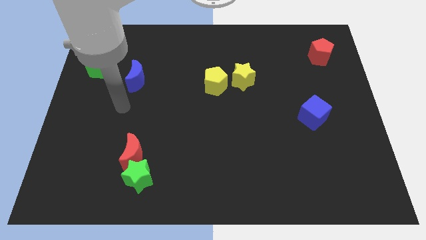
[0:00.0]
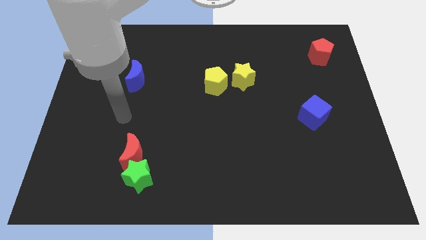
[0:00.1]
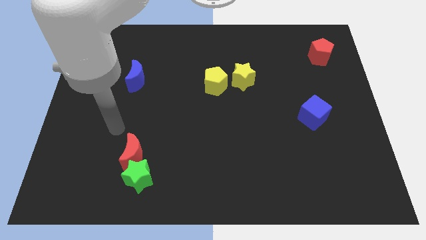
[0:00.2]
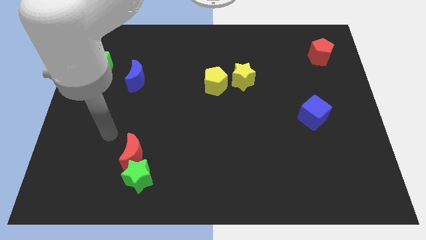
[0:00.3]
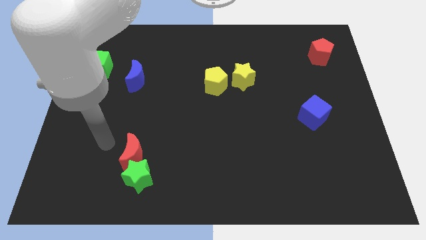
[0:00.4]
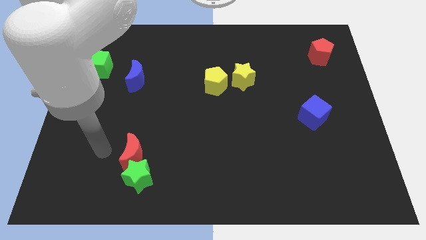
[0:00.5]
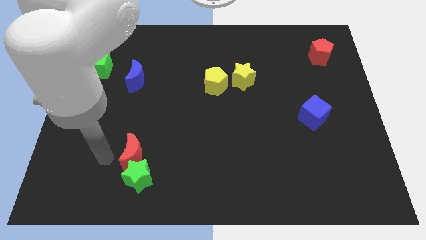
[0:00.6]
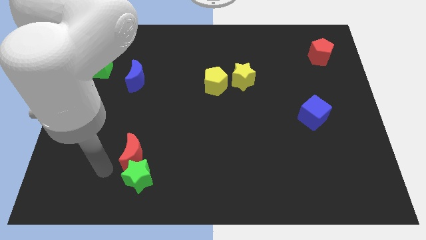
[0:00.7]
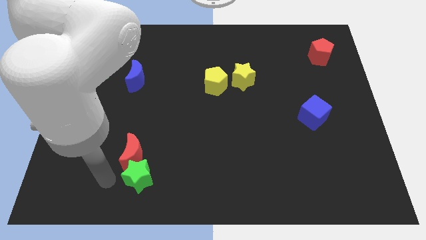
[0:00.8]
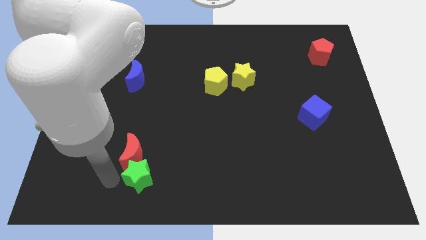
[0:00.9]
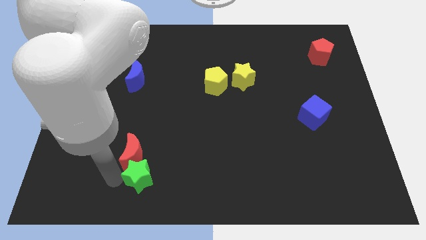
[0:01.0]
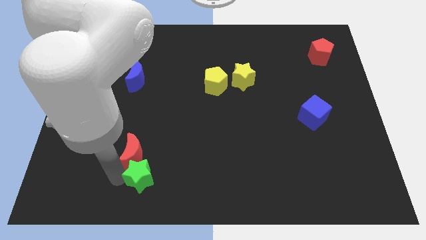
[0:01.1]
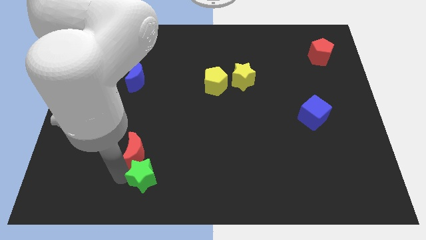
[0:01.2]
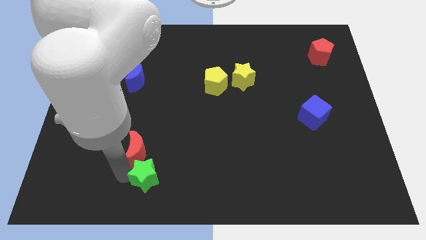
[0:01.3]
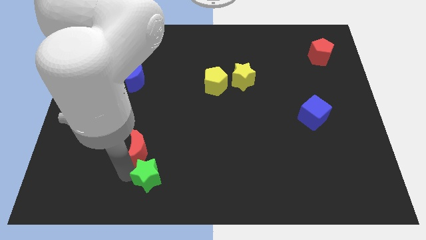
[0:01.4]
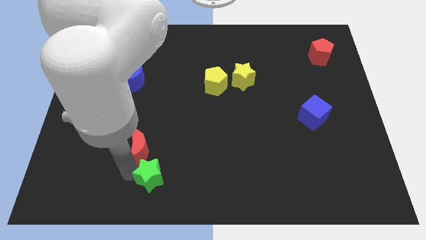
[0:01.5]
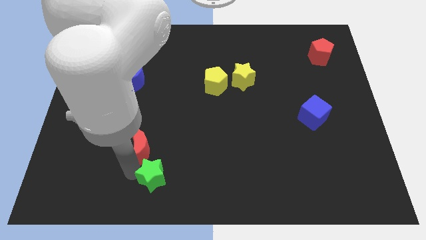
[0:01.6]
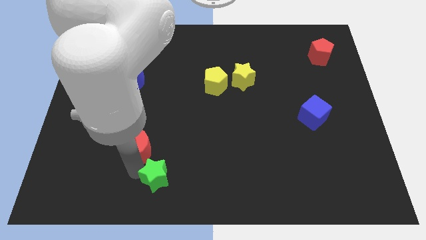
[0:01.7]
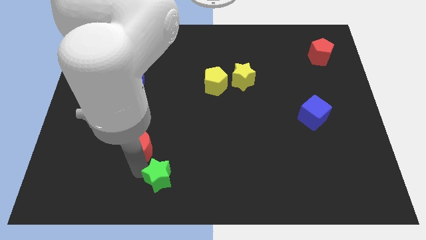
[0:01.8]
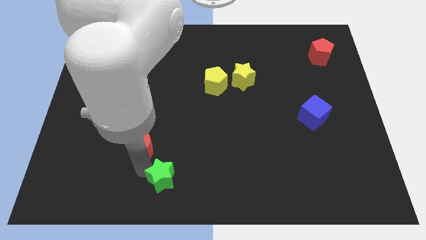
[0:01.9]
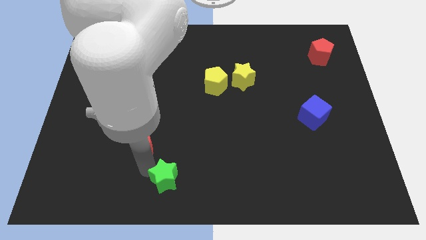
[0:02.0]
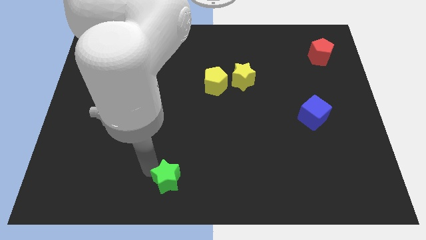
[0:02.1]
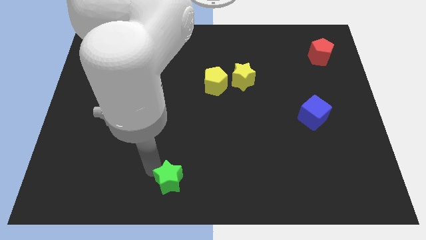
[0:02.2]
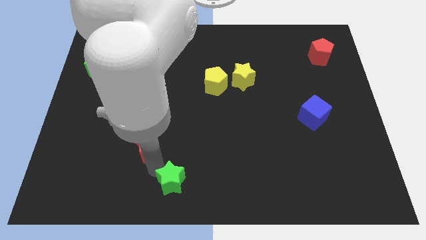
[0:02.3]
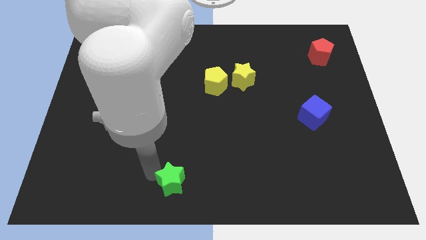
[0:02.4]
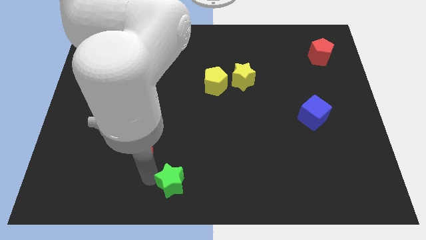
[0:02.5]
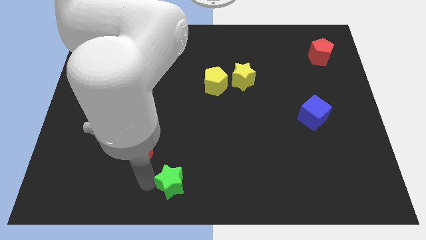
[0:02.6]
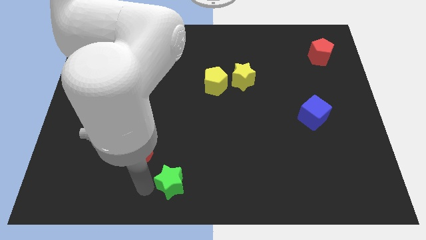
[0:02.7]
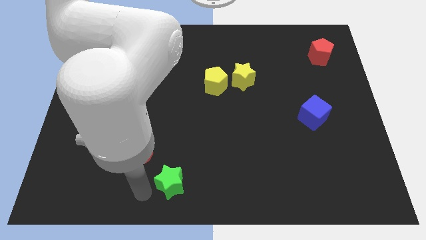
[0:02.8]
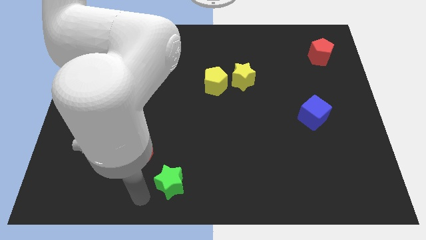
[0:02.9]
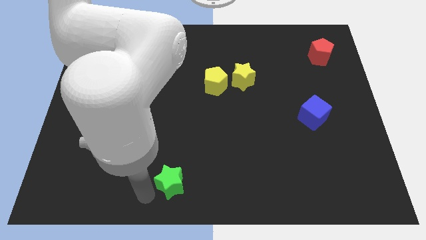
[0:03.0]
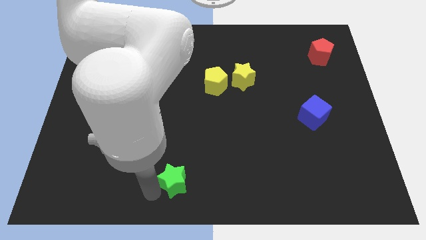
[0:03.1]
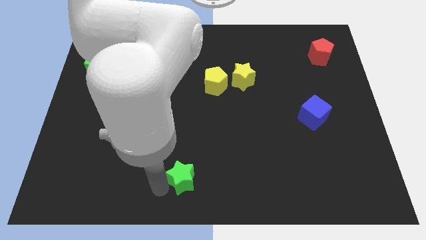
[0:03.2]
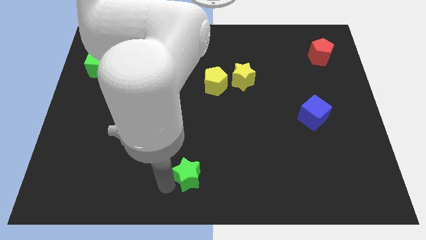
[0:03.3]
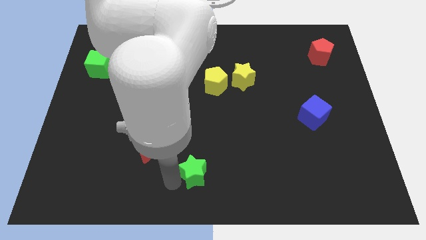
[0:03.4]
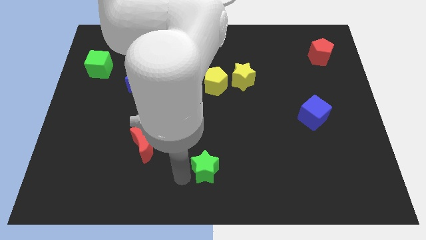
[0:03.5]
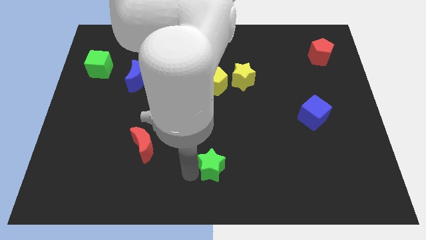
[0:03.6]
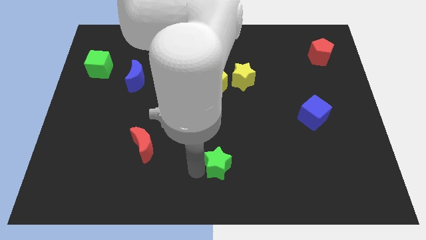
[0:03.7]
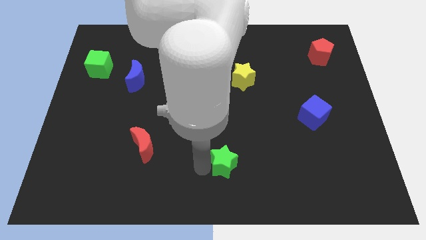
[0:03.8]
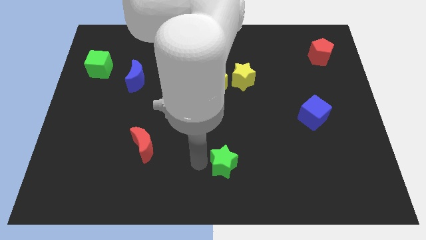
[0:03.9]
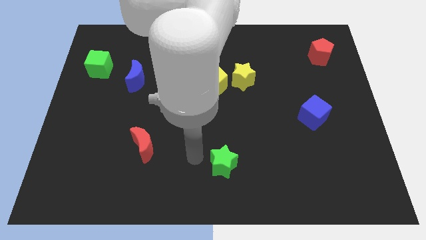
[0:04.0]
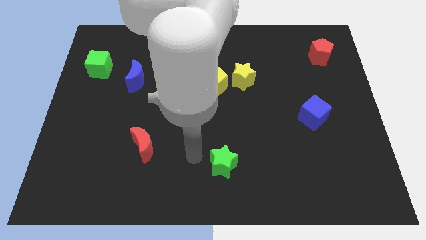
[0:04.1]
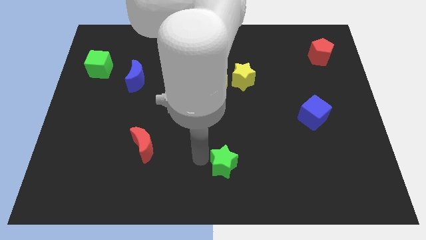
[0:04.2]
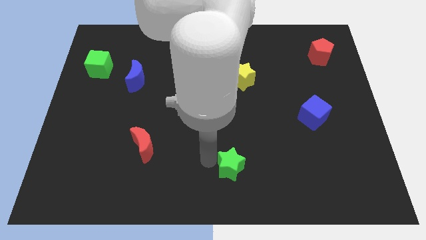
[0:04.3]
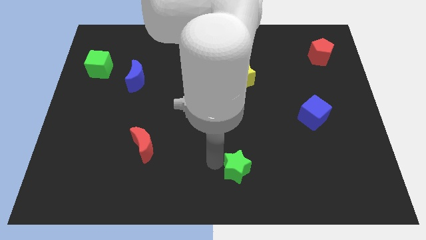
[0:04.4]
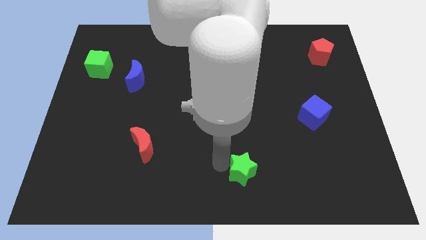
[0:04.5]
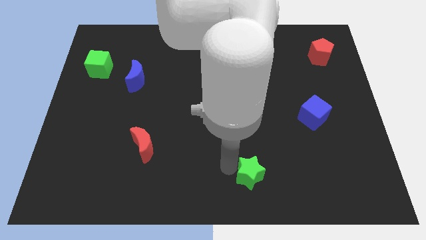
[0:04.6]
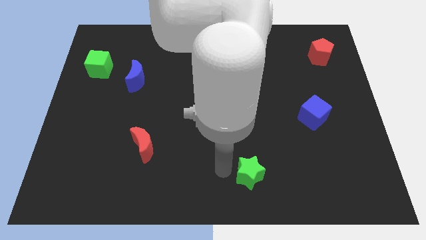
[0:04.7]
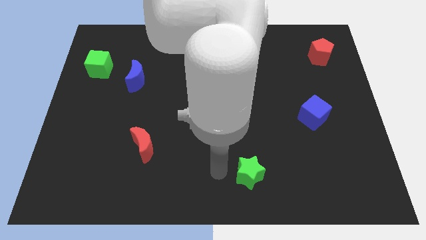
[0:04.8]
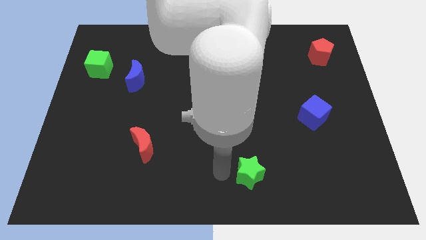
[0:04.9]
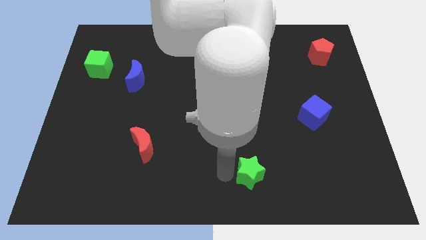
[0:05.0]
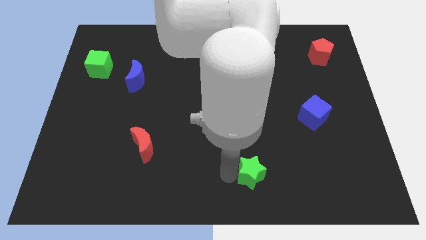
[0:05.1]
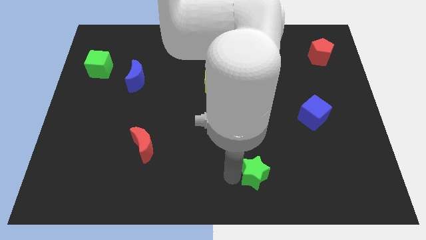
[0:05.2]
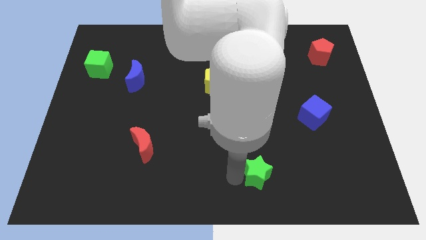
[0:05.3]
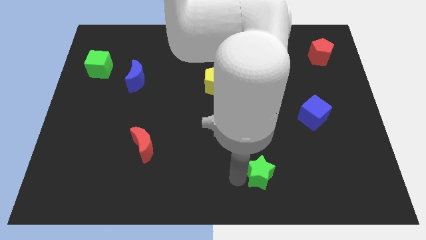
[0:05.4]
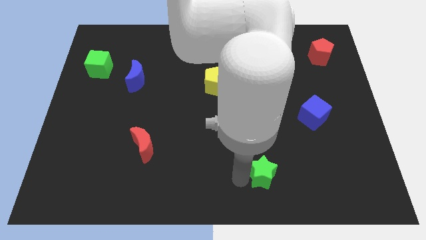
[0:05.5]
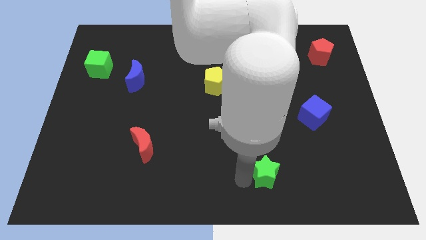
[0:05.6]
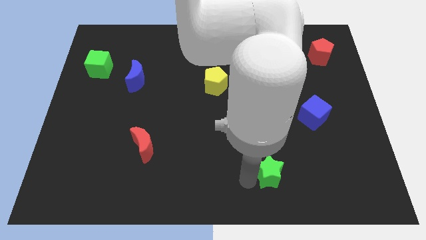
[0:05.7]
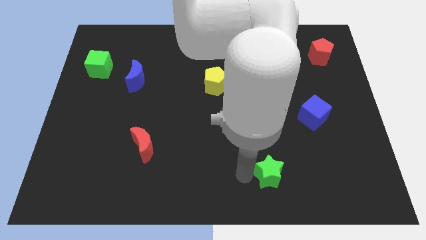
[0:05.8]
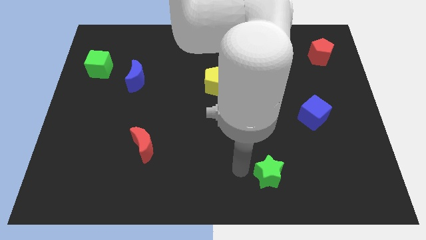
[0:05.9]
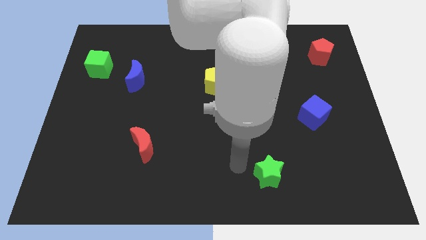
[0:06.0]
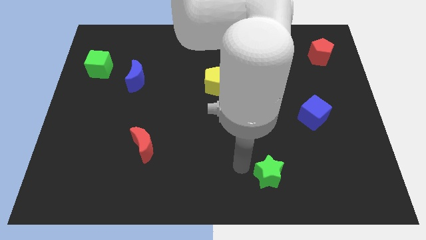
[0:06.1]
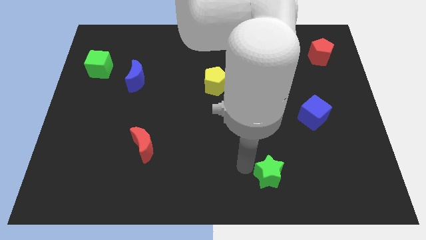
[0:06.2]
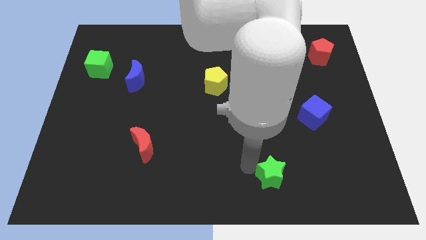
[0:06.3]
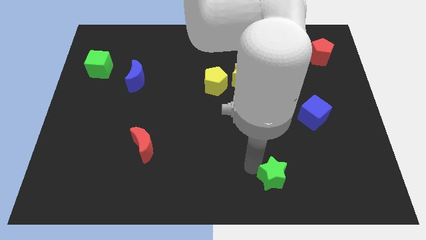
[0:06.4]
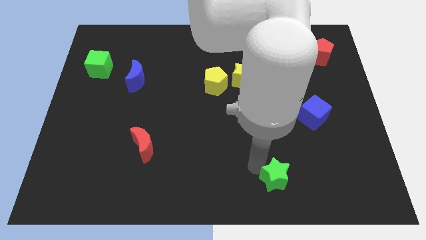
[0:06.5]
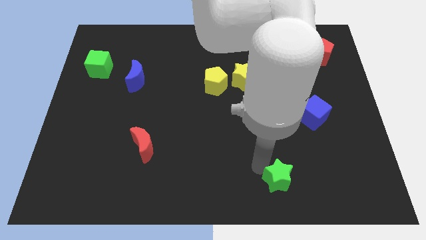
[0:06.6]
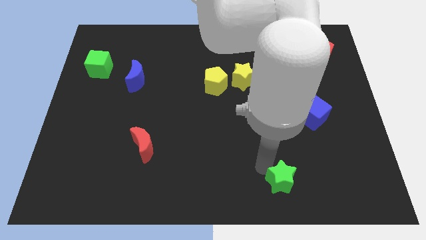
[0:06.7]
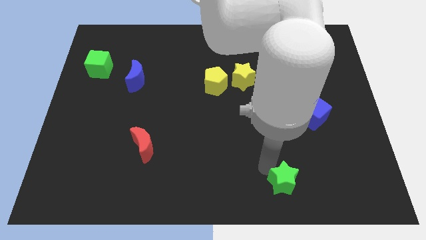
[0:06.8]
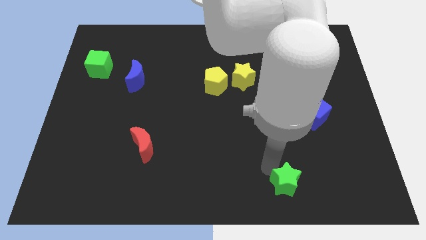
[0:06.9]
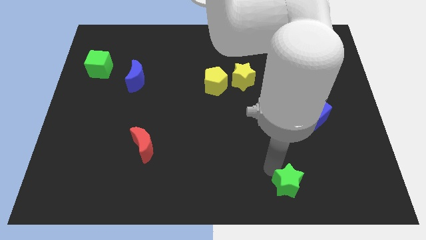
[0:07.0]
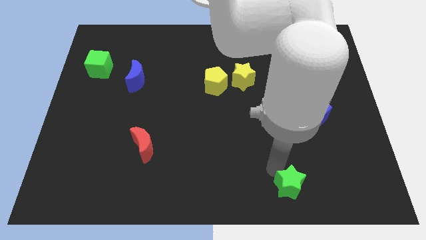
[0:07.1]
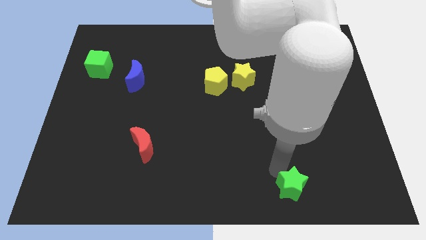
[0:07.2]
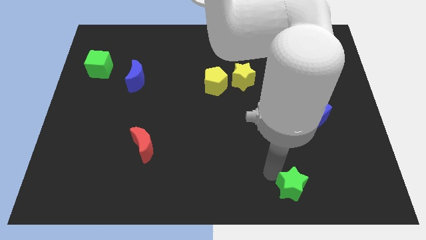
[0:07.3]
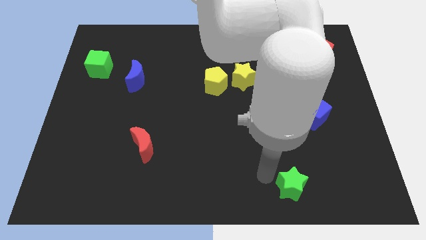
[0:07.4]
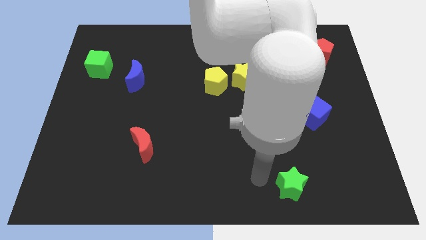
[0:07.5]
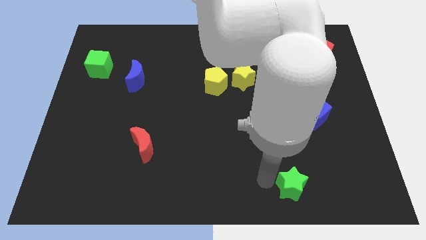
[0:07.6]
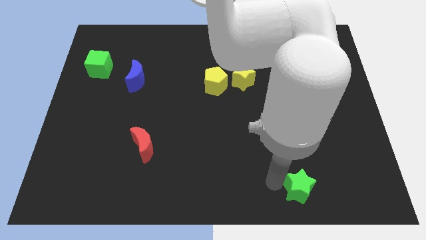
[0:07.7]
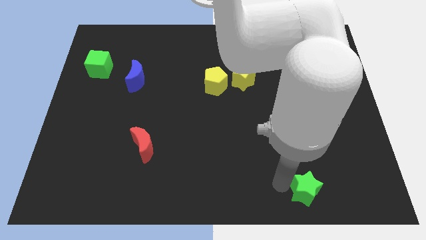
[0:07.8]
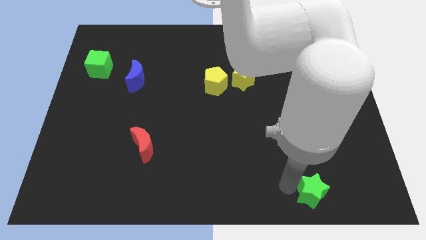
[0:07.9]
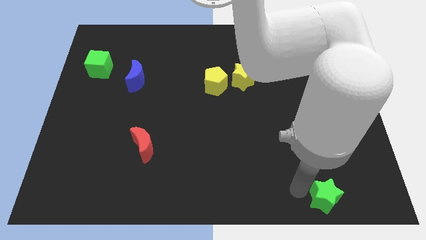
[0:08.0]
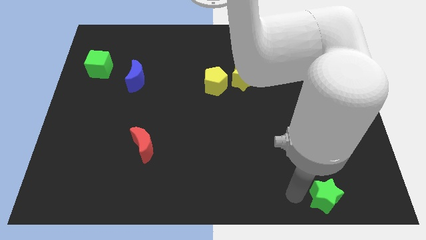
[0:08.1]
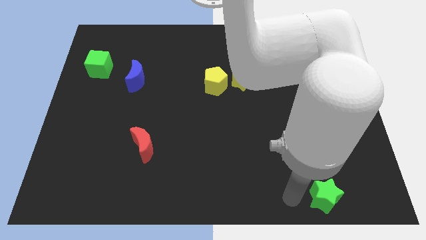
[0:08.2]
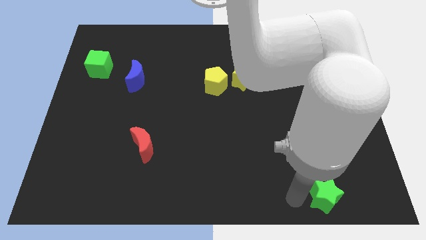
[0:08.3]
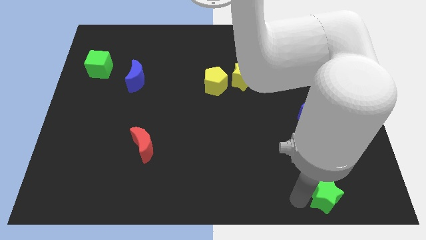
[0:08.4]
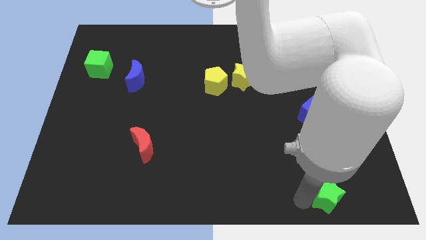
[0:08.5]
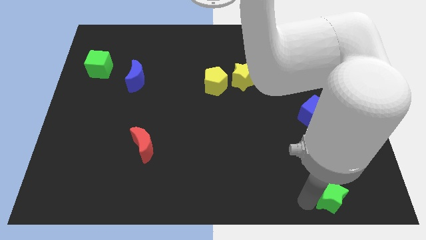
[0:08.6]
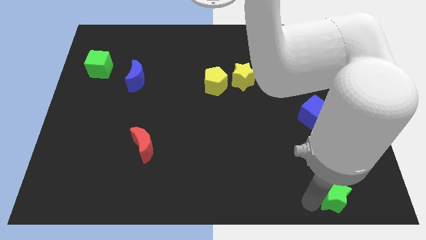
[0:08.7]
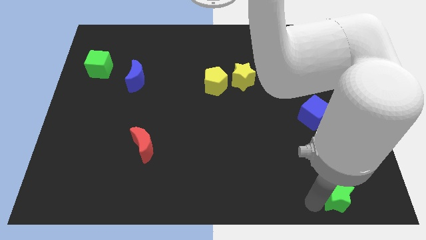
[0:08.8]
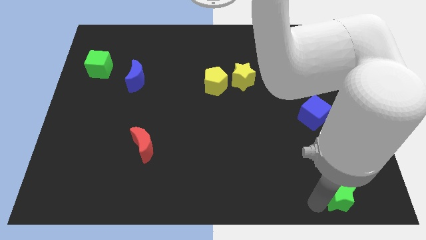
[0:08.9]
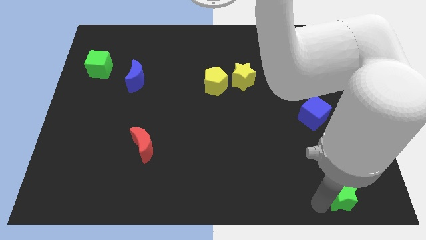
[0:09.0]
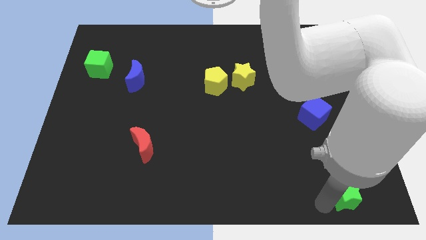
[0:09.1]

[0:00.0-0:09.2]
push the green star to the bottom right of the board
